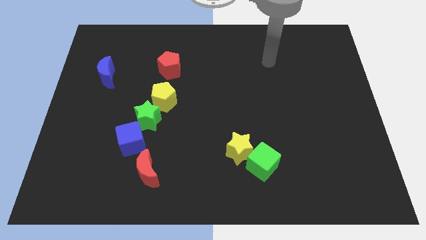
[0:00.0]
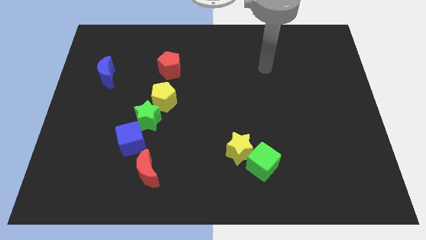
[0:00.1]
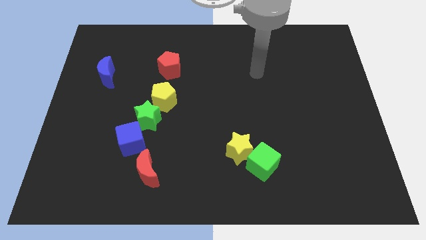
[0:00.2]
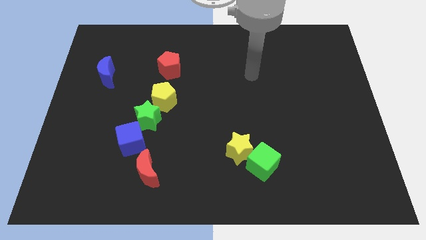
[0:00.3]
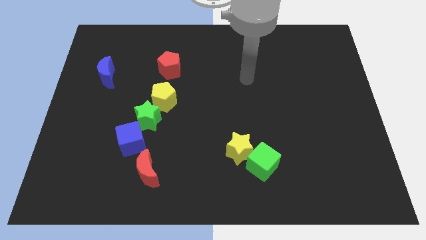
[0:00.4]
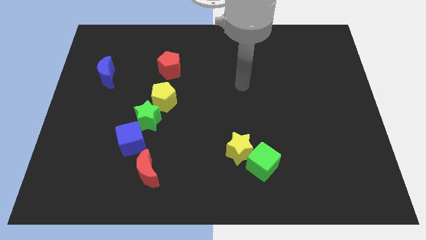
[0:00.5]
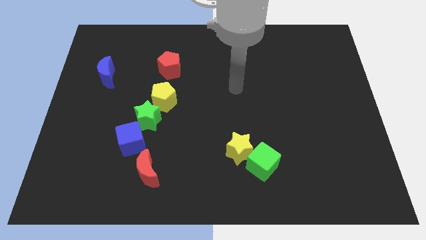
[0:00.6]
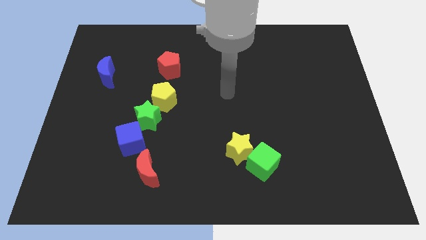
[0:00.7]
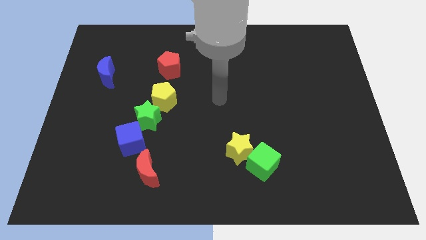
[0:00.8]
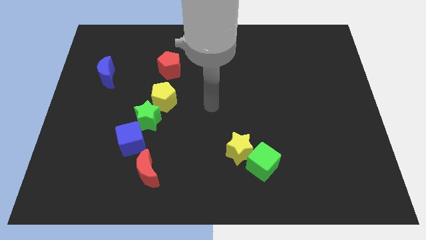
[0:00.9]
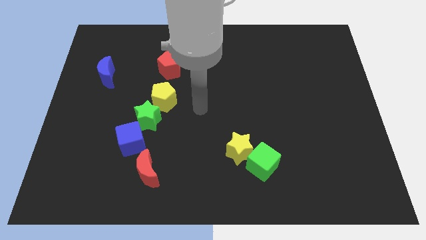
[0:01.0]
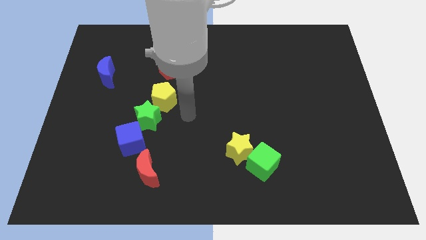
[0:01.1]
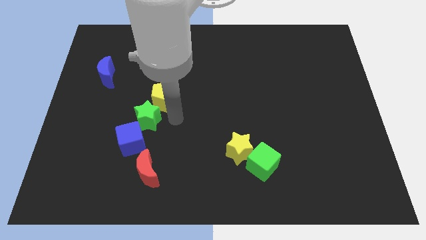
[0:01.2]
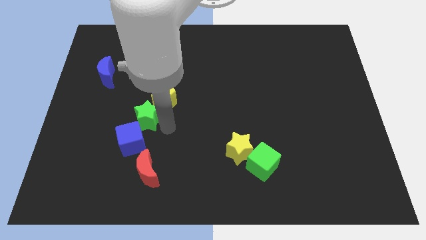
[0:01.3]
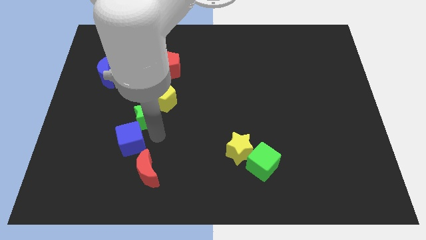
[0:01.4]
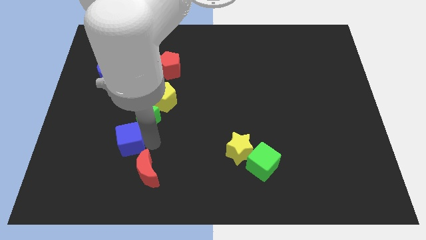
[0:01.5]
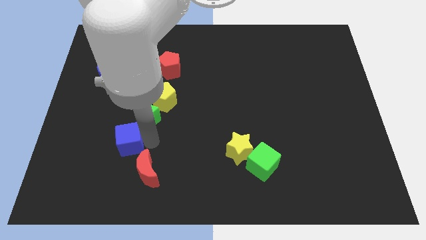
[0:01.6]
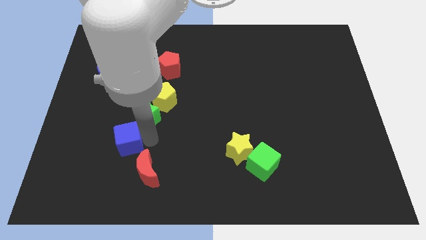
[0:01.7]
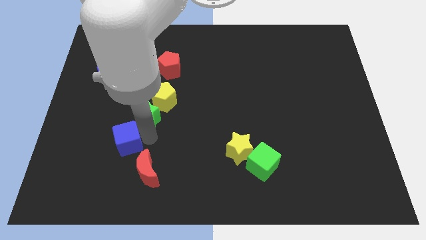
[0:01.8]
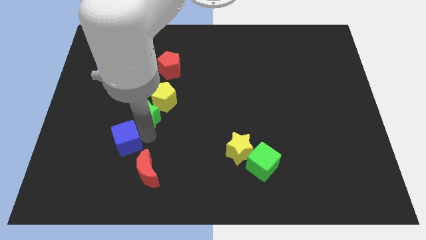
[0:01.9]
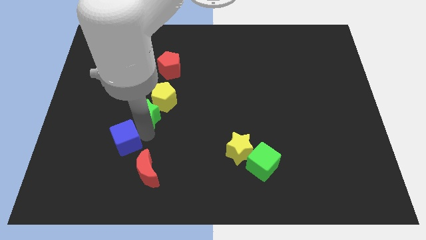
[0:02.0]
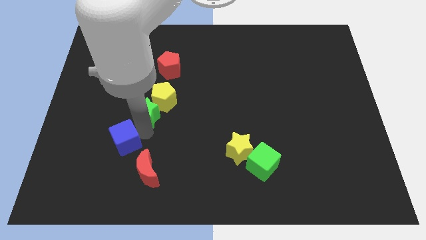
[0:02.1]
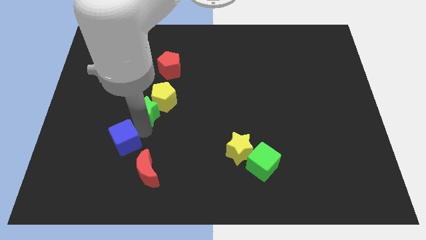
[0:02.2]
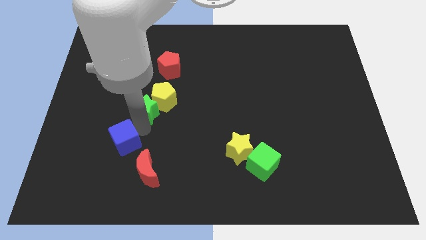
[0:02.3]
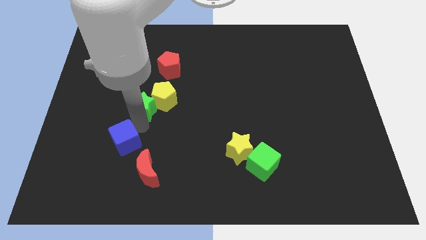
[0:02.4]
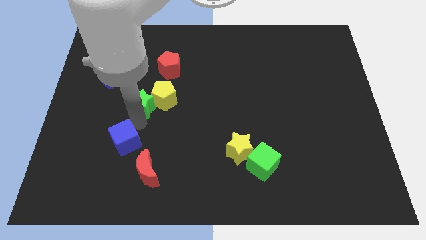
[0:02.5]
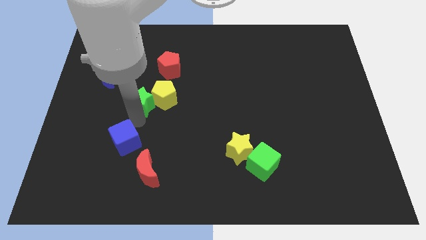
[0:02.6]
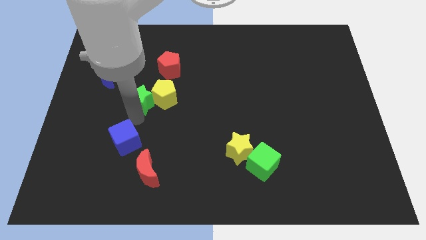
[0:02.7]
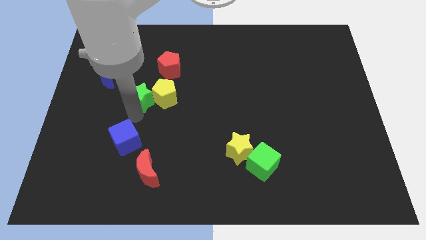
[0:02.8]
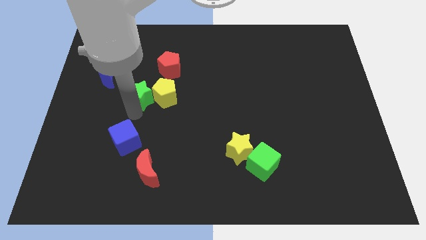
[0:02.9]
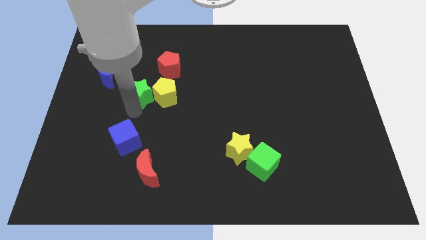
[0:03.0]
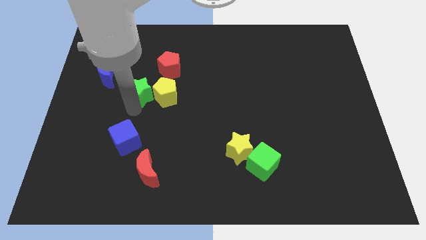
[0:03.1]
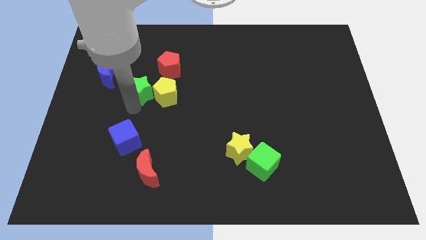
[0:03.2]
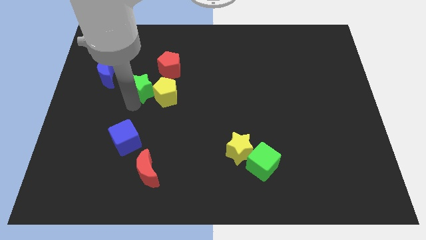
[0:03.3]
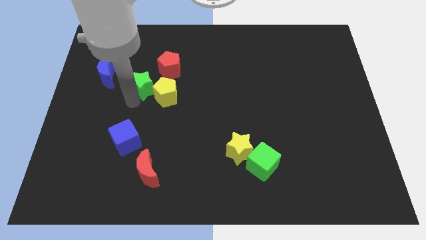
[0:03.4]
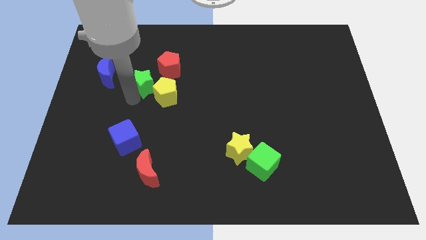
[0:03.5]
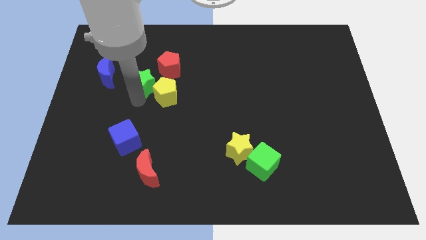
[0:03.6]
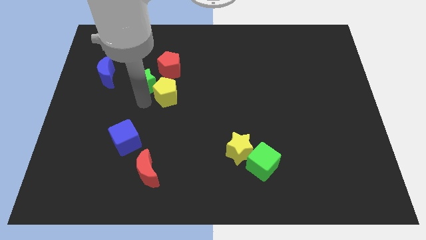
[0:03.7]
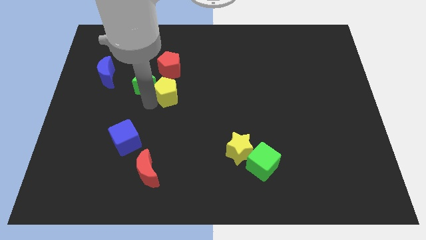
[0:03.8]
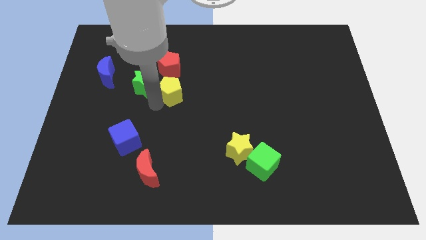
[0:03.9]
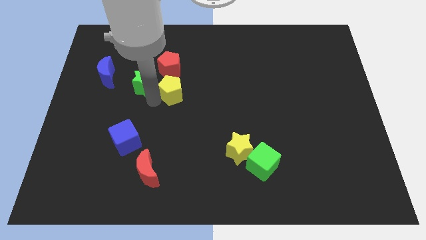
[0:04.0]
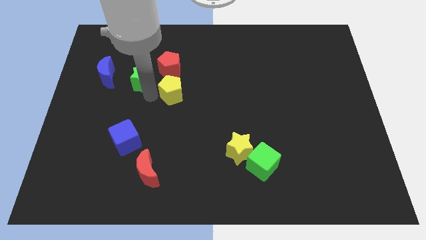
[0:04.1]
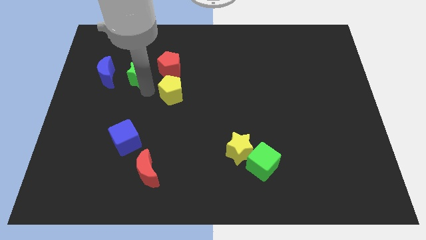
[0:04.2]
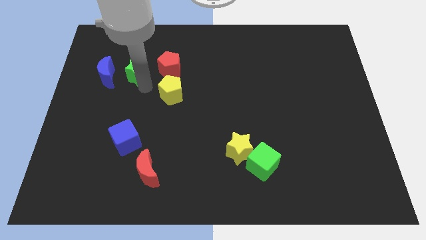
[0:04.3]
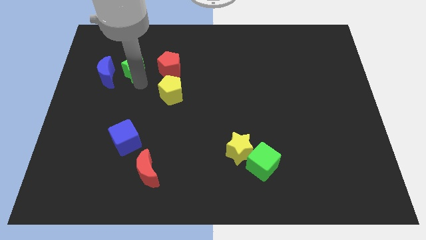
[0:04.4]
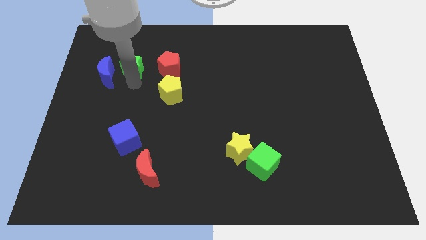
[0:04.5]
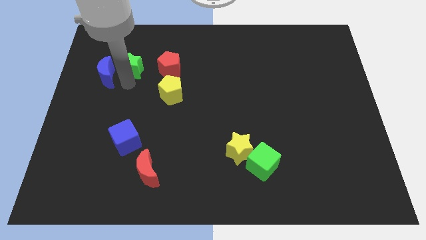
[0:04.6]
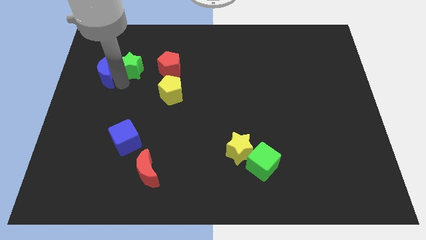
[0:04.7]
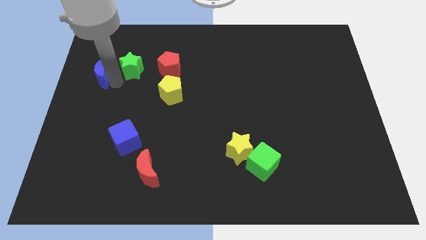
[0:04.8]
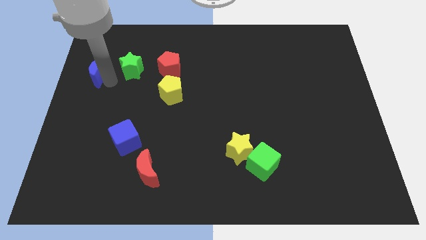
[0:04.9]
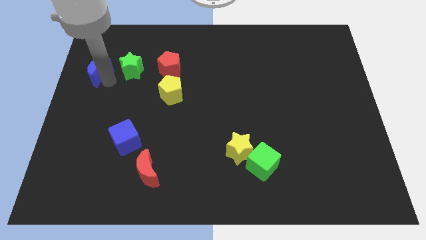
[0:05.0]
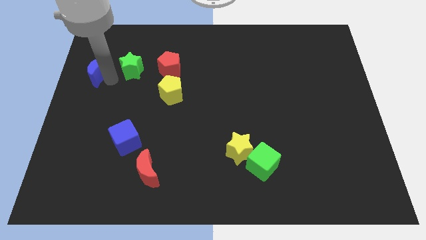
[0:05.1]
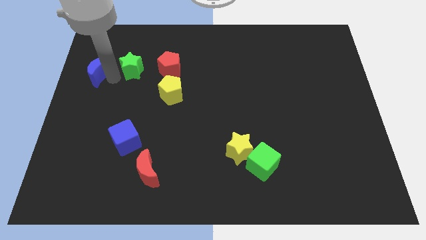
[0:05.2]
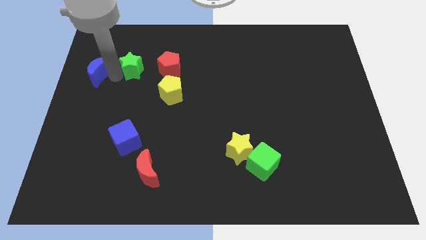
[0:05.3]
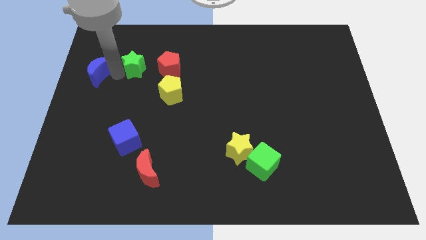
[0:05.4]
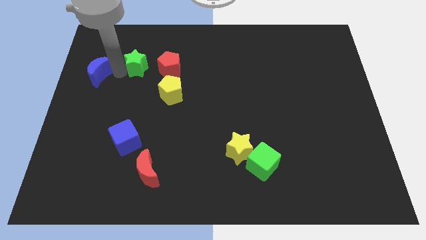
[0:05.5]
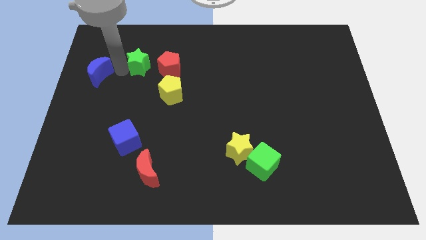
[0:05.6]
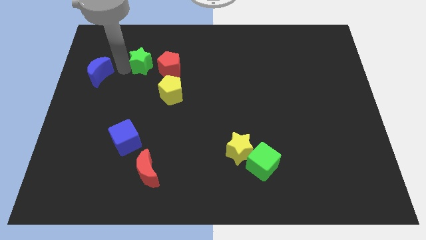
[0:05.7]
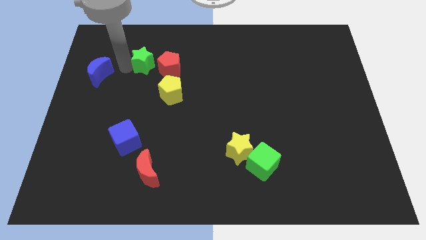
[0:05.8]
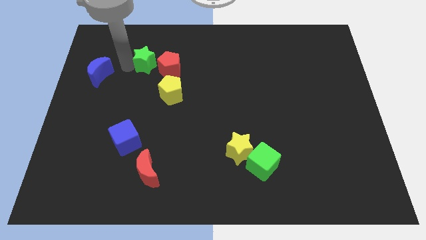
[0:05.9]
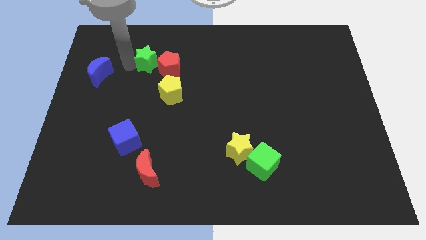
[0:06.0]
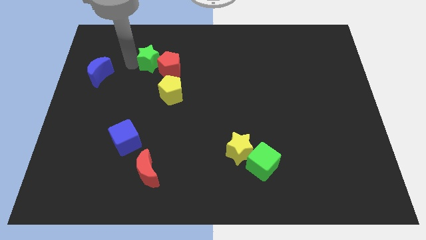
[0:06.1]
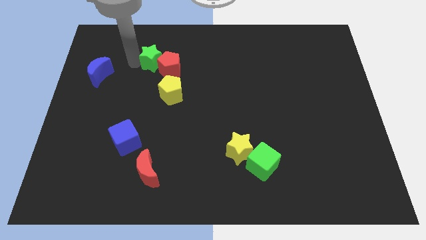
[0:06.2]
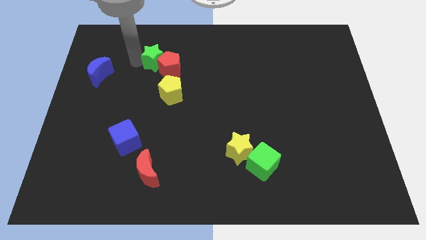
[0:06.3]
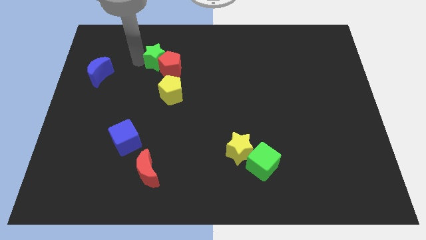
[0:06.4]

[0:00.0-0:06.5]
push the green star to the top of the yellow pentagon

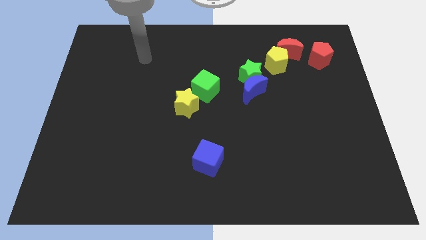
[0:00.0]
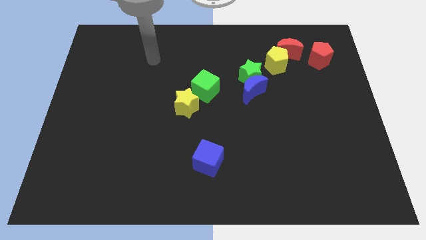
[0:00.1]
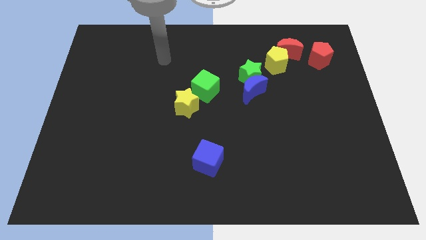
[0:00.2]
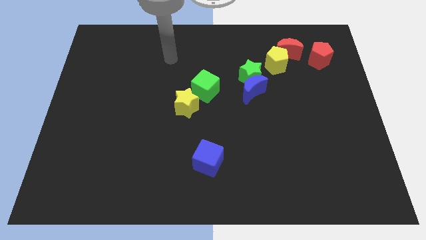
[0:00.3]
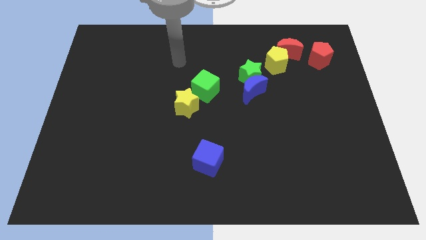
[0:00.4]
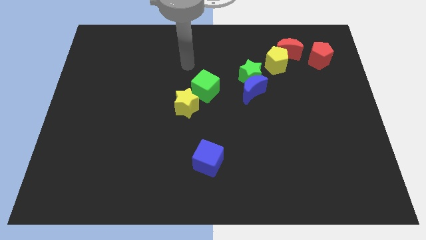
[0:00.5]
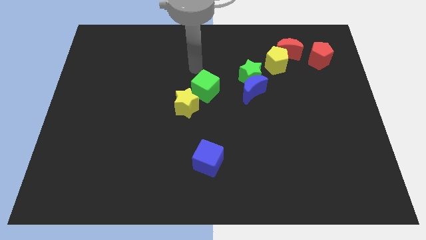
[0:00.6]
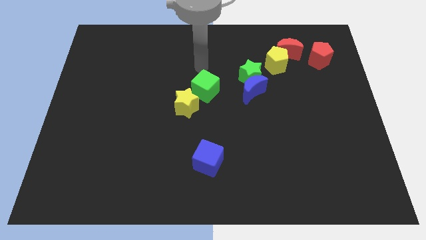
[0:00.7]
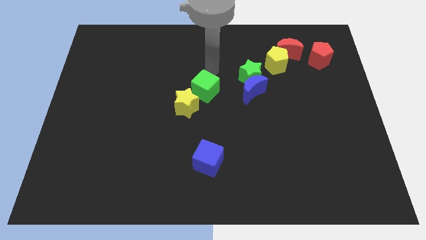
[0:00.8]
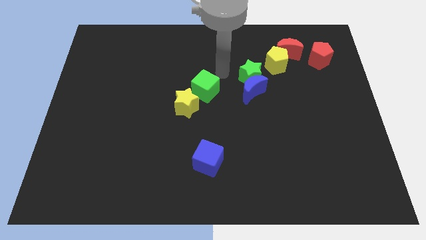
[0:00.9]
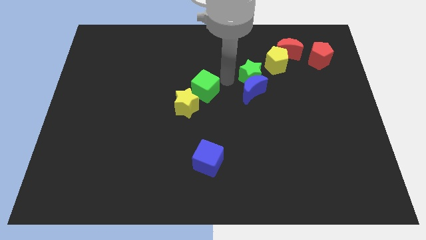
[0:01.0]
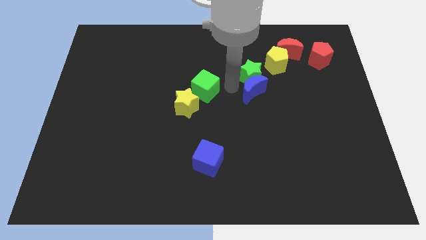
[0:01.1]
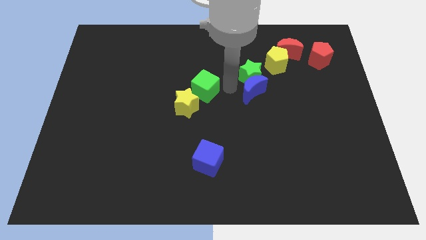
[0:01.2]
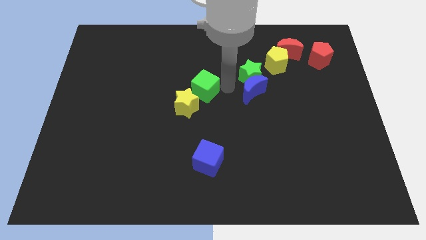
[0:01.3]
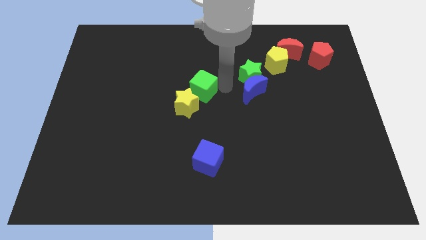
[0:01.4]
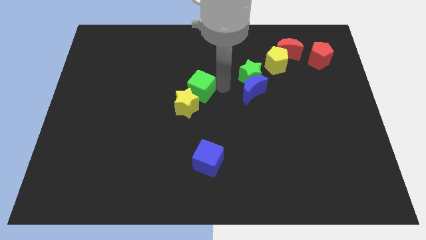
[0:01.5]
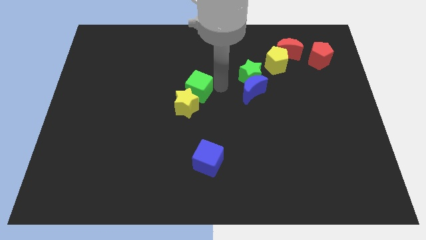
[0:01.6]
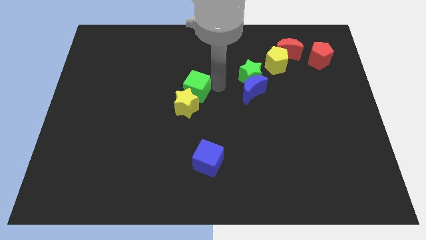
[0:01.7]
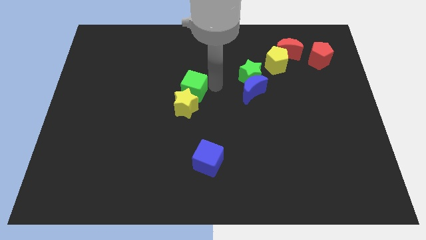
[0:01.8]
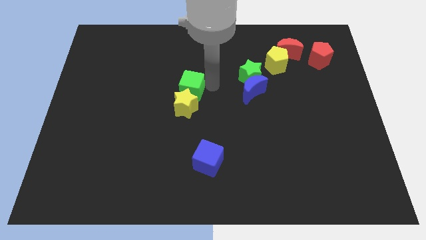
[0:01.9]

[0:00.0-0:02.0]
push the green cube to the top left side of the yellow star
